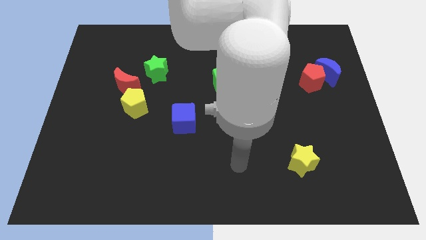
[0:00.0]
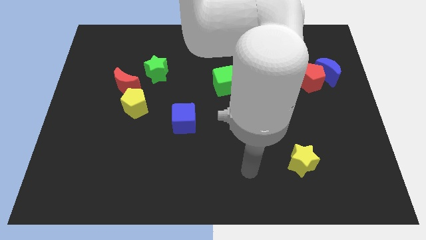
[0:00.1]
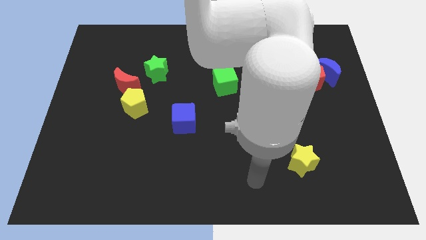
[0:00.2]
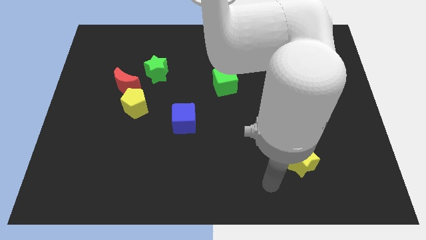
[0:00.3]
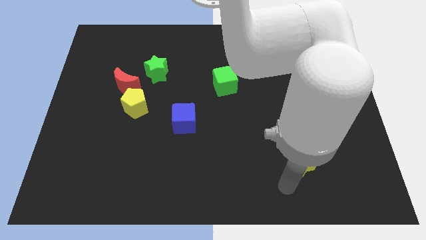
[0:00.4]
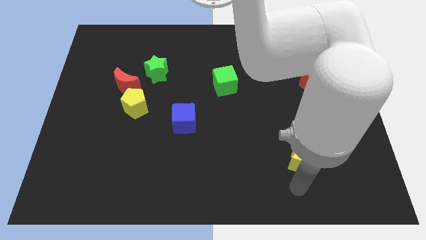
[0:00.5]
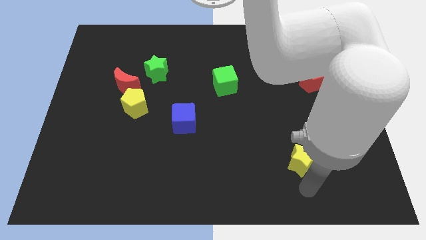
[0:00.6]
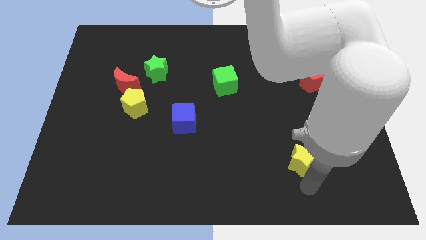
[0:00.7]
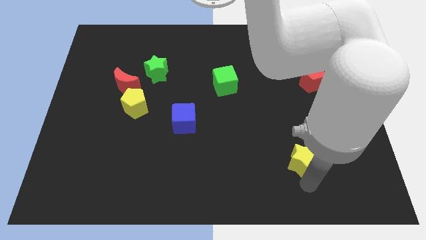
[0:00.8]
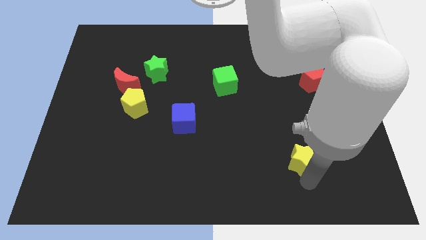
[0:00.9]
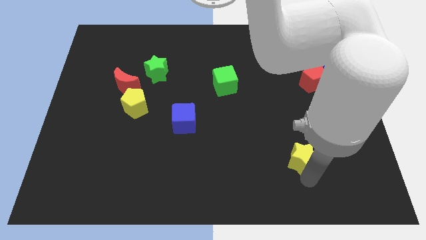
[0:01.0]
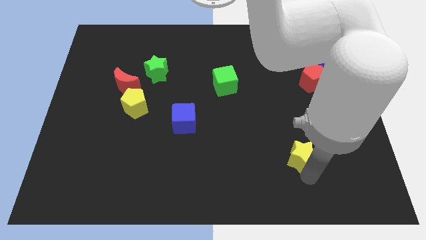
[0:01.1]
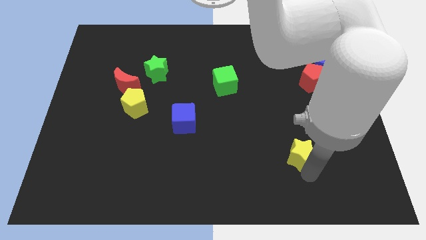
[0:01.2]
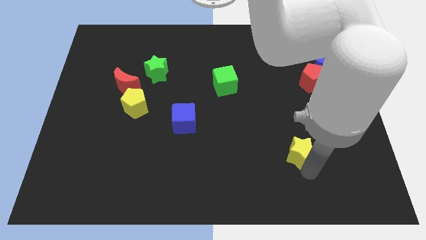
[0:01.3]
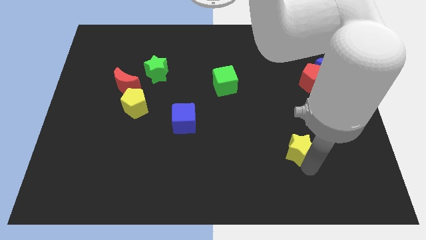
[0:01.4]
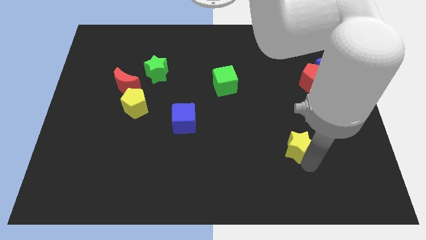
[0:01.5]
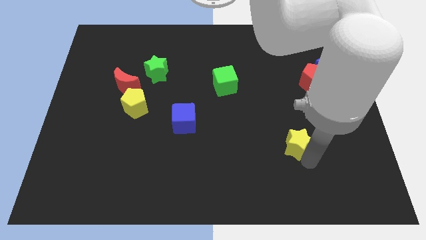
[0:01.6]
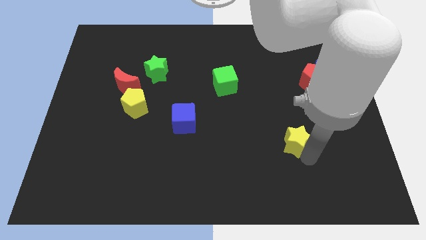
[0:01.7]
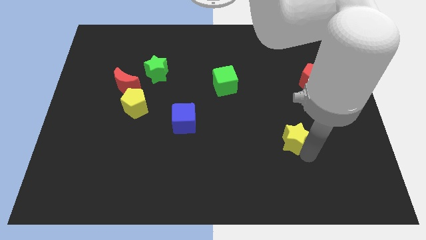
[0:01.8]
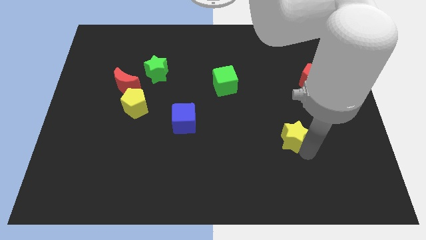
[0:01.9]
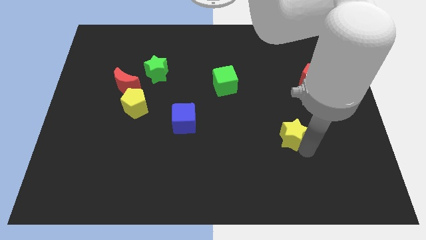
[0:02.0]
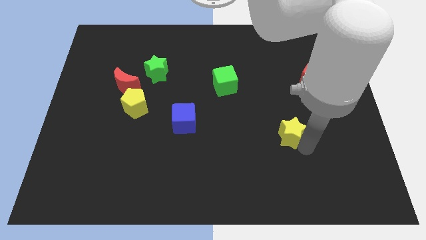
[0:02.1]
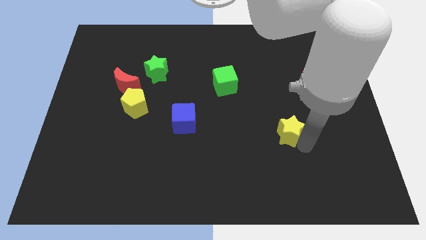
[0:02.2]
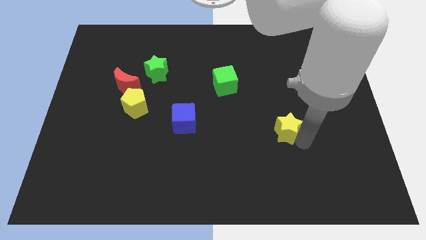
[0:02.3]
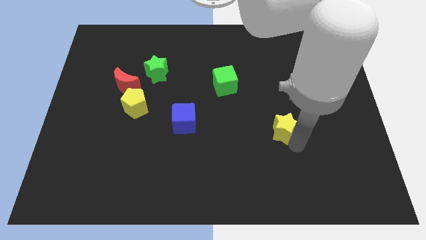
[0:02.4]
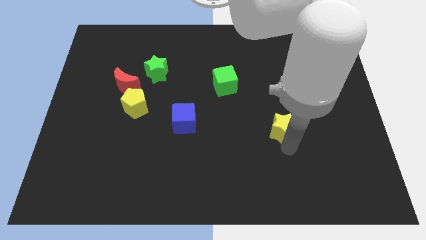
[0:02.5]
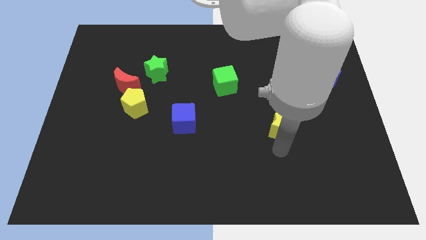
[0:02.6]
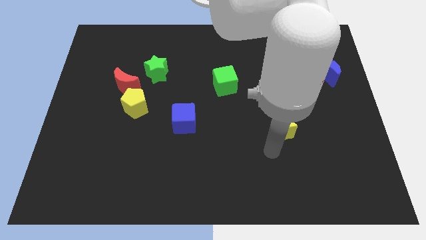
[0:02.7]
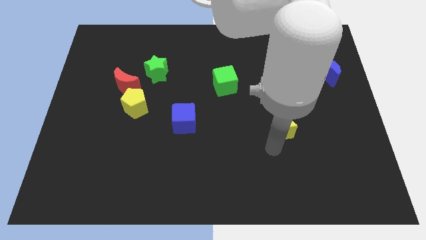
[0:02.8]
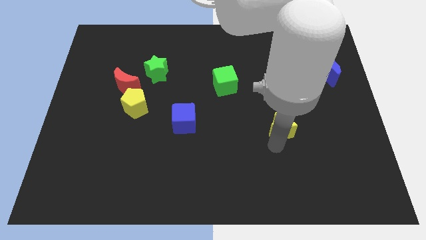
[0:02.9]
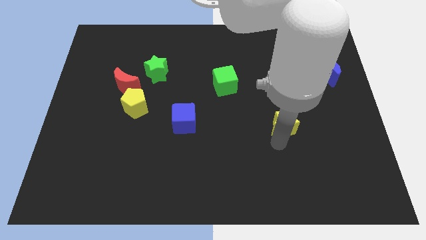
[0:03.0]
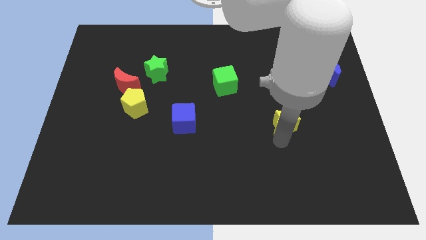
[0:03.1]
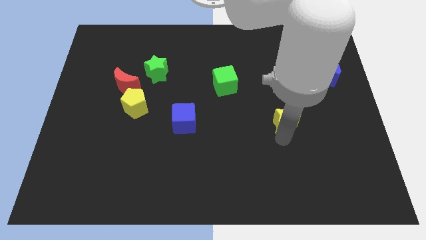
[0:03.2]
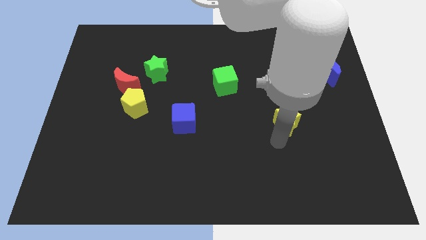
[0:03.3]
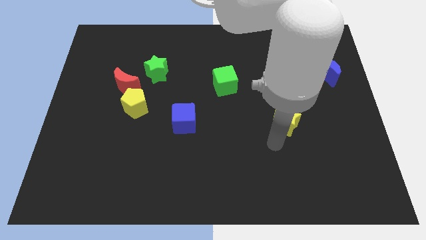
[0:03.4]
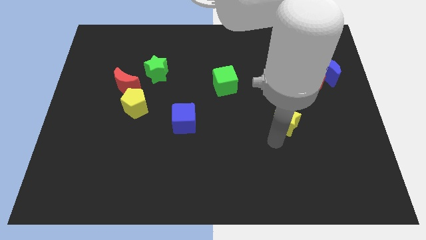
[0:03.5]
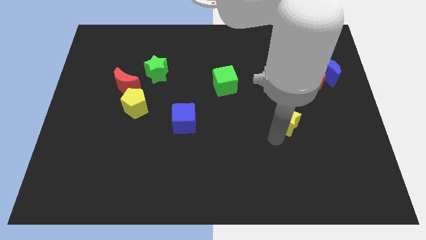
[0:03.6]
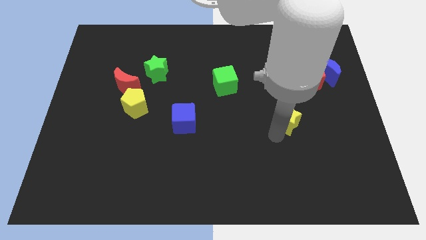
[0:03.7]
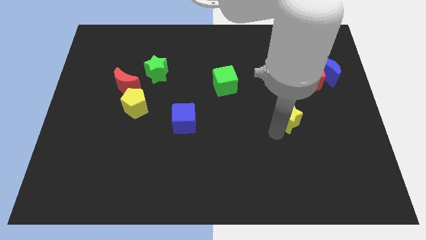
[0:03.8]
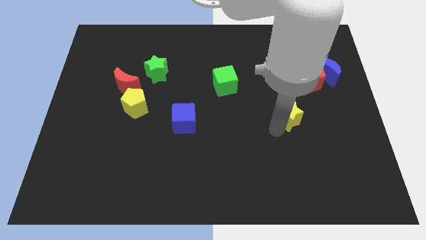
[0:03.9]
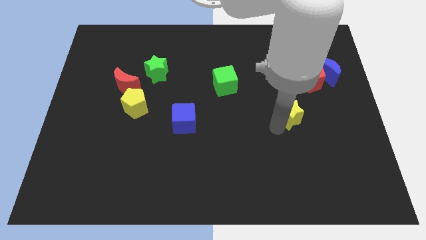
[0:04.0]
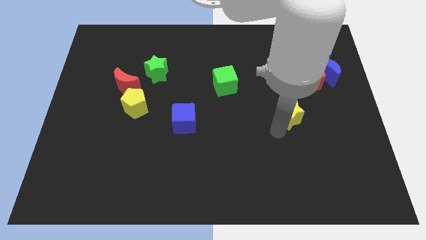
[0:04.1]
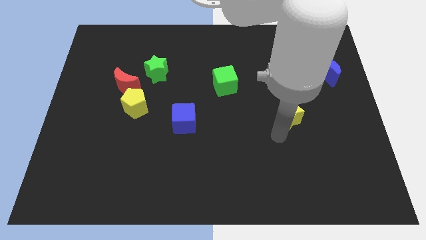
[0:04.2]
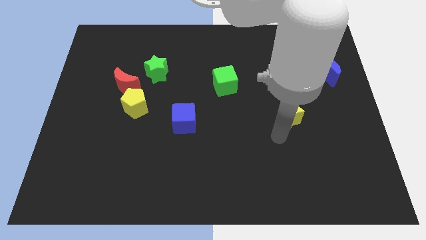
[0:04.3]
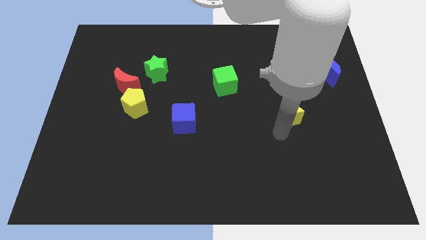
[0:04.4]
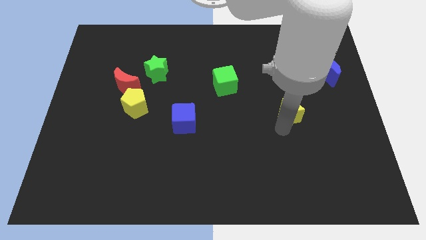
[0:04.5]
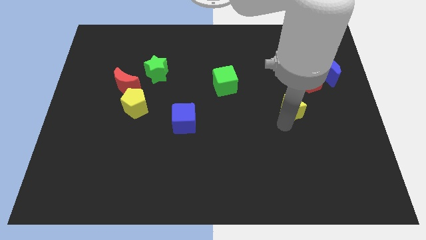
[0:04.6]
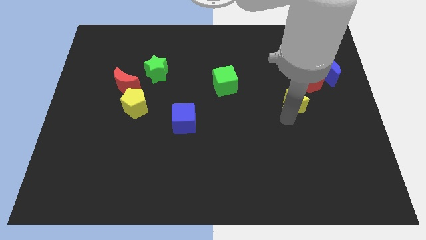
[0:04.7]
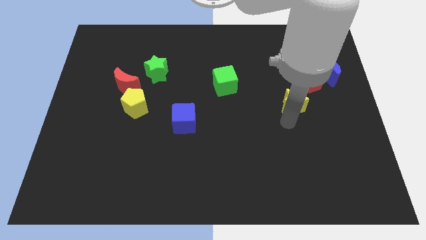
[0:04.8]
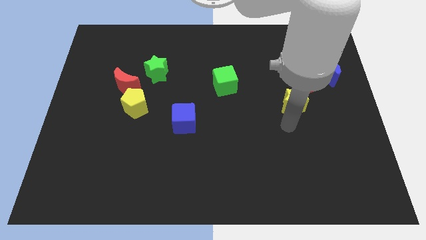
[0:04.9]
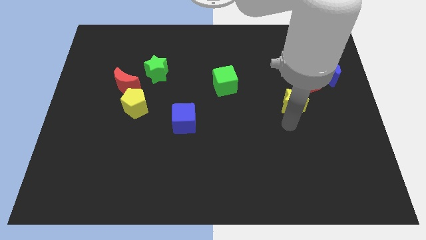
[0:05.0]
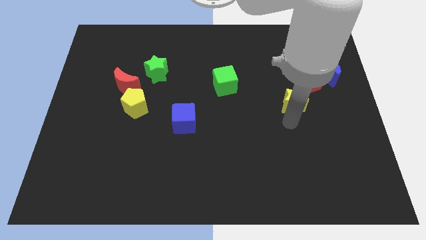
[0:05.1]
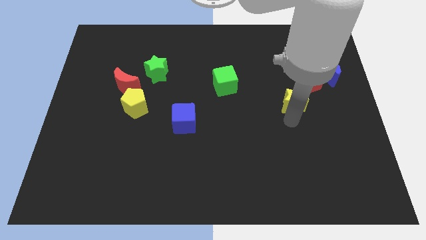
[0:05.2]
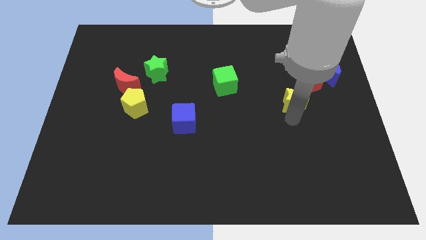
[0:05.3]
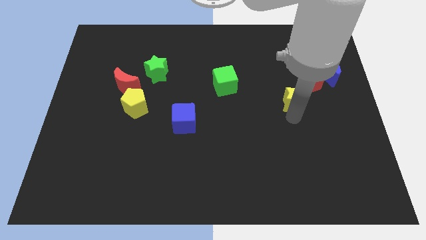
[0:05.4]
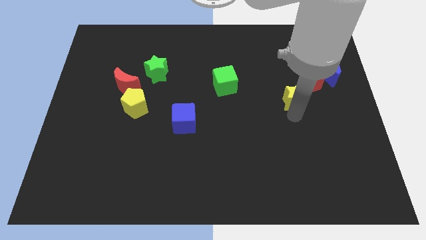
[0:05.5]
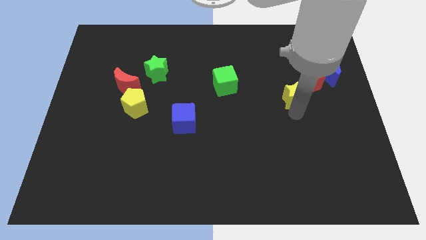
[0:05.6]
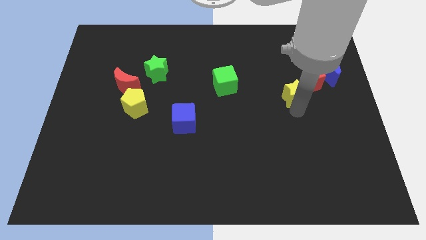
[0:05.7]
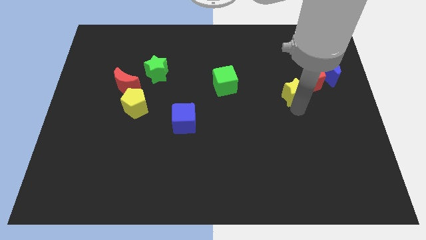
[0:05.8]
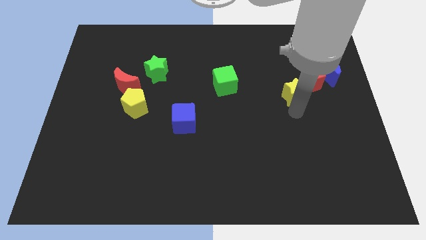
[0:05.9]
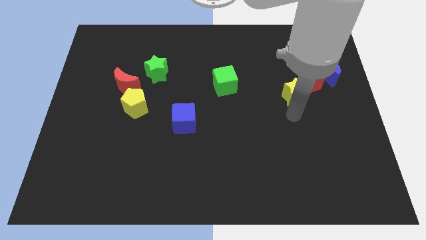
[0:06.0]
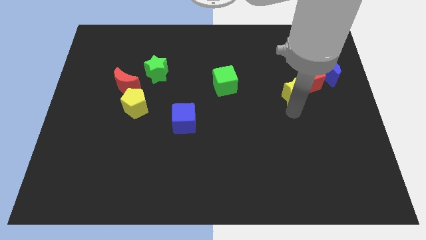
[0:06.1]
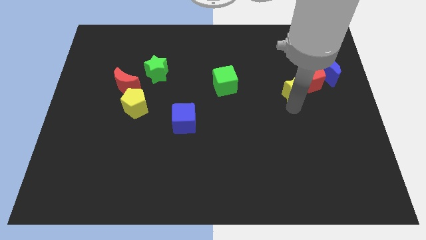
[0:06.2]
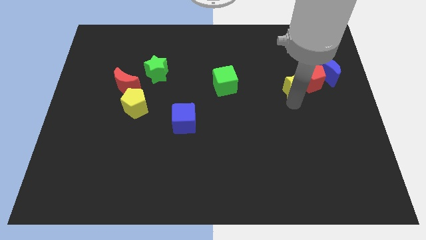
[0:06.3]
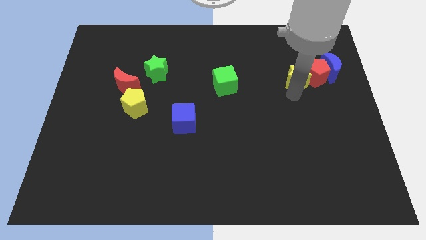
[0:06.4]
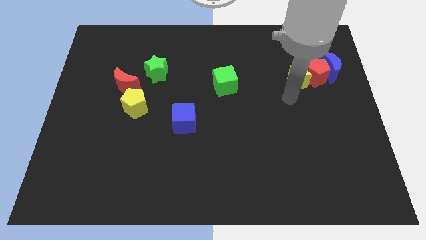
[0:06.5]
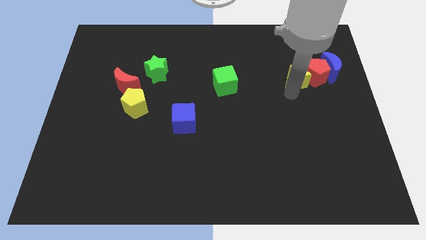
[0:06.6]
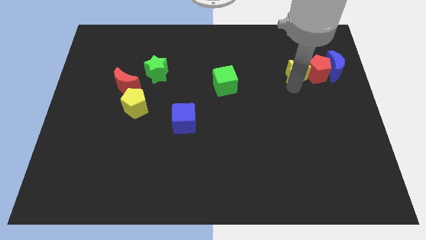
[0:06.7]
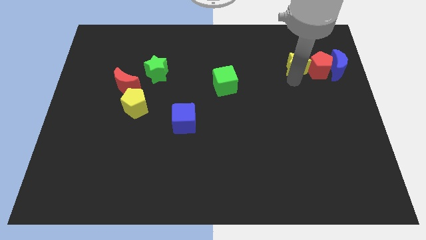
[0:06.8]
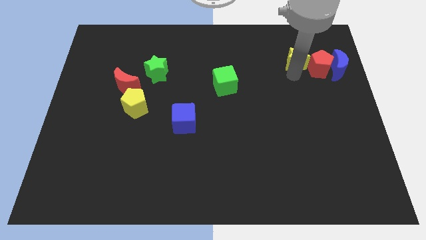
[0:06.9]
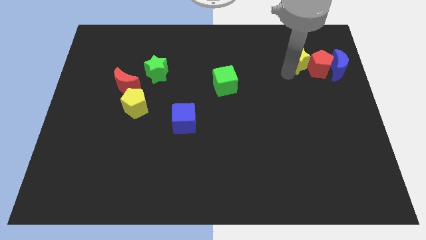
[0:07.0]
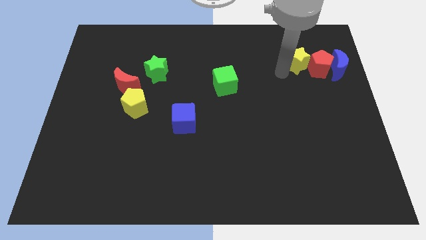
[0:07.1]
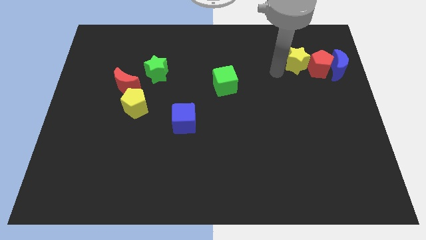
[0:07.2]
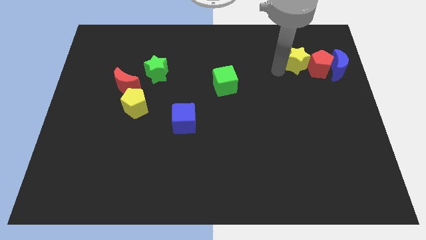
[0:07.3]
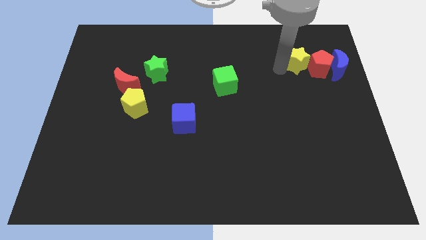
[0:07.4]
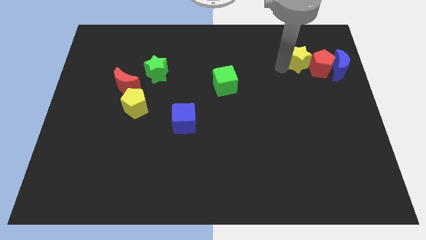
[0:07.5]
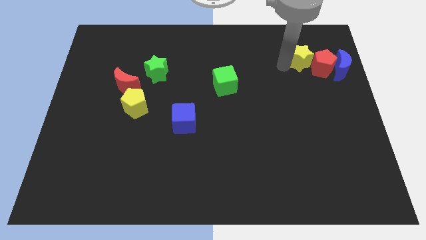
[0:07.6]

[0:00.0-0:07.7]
put the yellow star diagonally up and to the left of the blue moon
